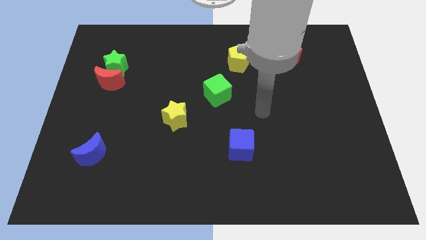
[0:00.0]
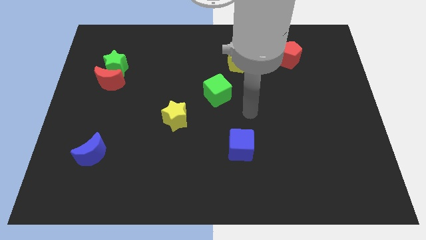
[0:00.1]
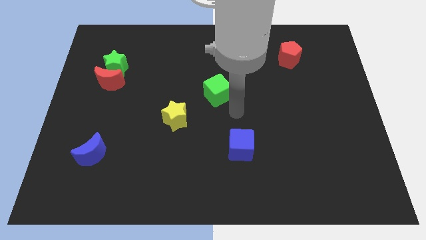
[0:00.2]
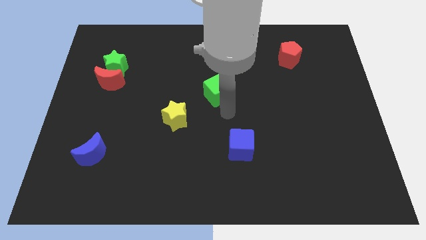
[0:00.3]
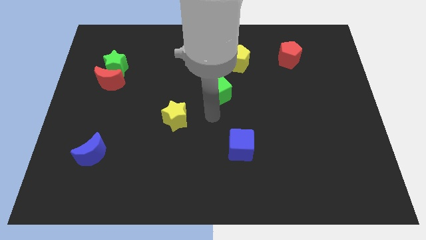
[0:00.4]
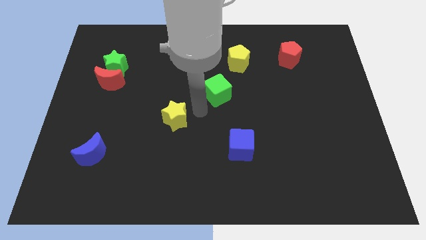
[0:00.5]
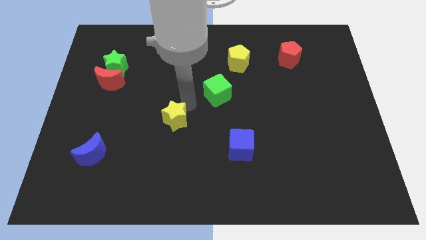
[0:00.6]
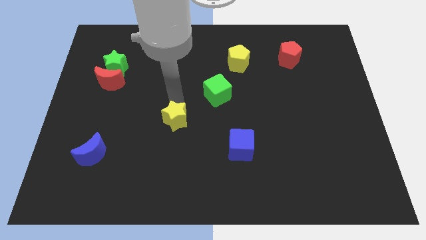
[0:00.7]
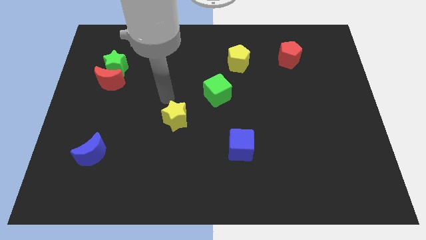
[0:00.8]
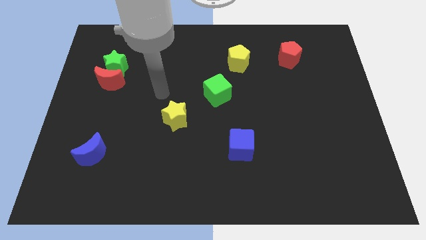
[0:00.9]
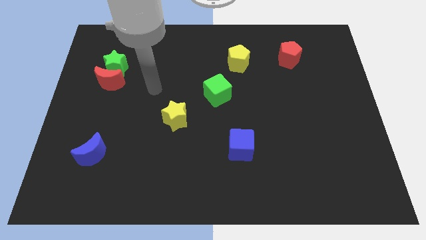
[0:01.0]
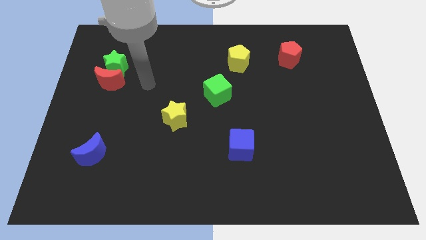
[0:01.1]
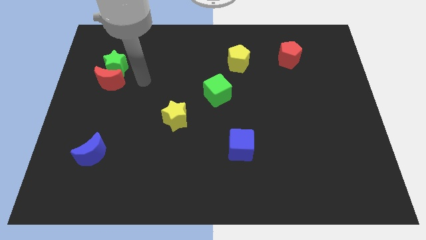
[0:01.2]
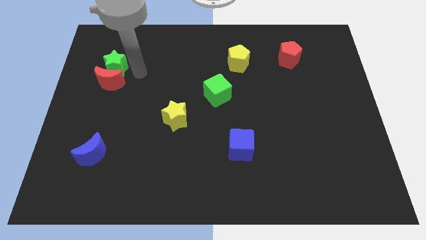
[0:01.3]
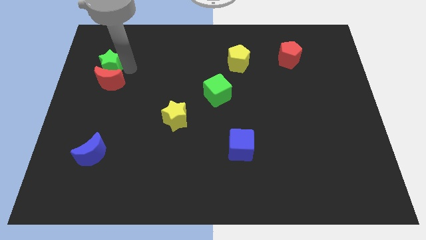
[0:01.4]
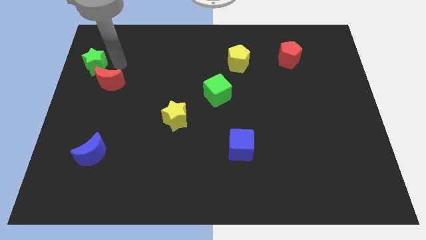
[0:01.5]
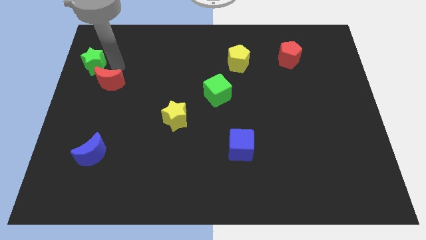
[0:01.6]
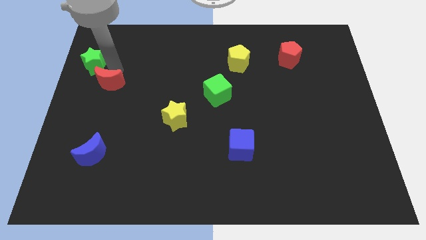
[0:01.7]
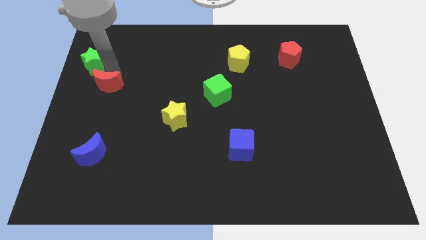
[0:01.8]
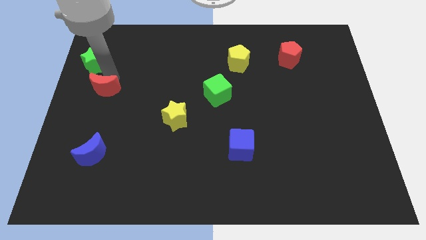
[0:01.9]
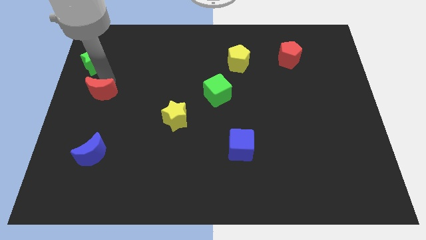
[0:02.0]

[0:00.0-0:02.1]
separate the red moon from the green star

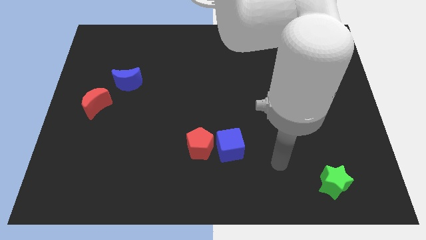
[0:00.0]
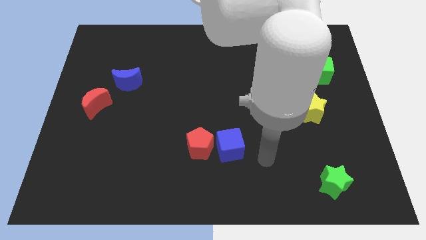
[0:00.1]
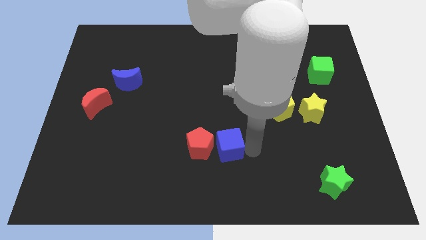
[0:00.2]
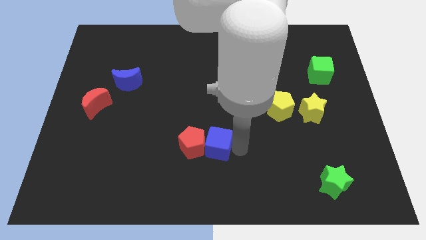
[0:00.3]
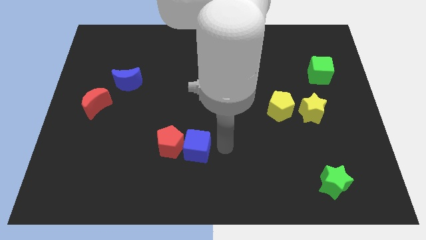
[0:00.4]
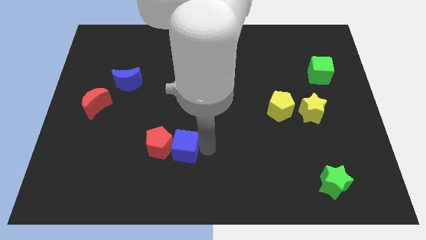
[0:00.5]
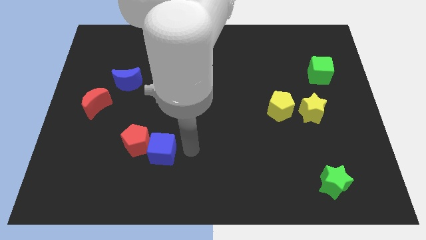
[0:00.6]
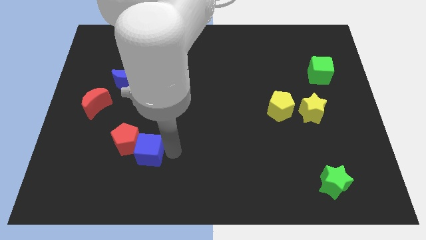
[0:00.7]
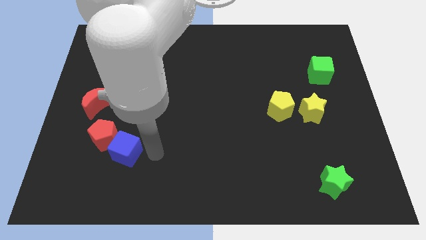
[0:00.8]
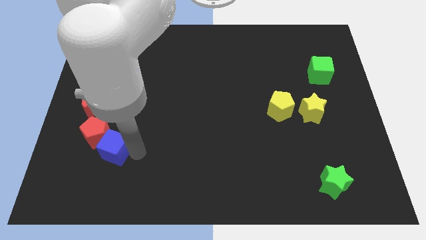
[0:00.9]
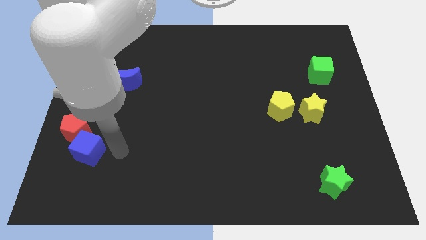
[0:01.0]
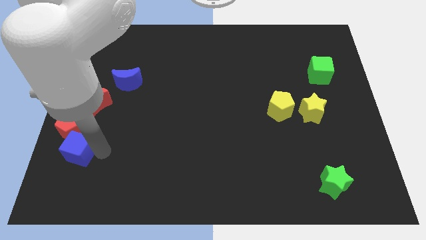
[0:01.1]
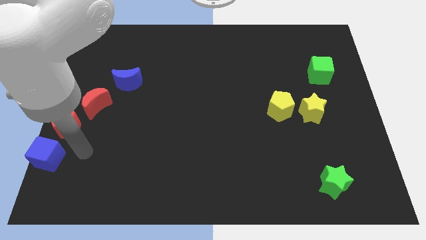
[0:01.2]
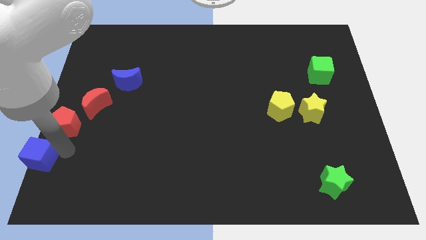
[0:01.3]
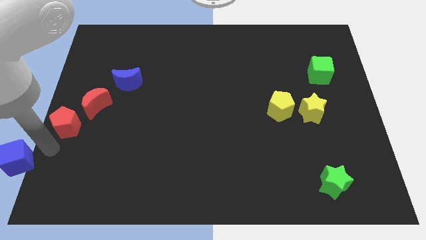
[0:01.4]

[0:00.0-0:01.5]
separate the red pentagon from the blue cube

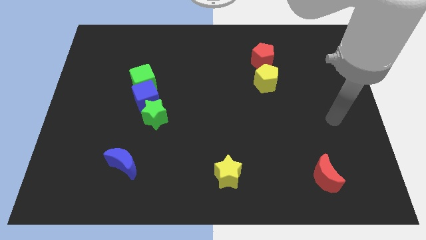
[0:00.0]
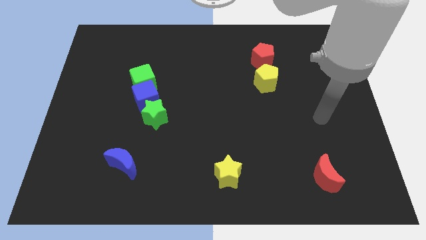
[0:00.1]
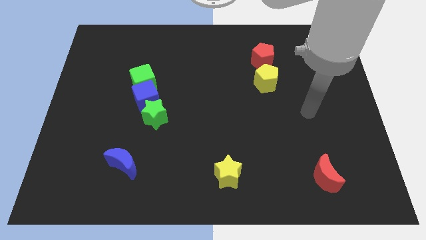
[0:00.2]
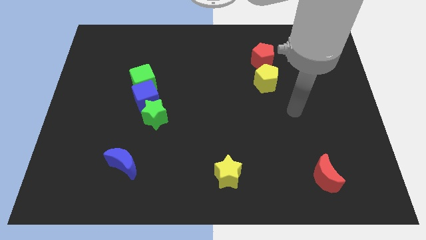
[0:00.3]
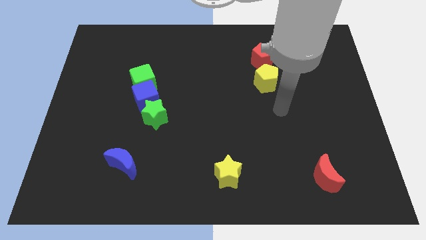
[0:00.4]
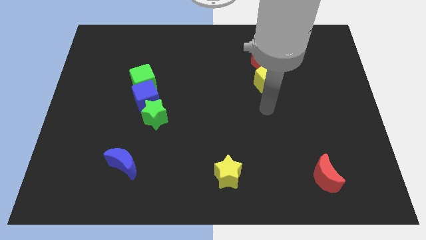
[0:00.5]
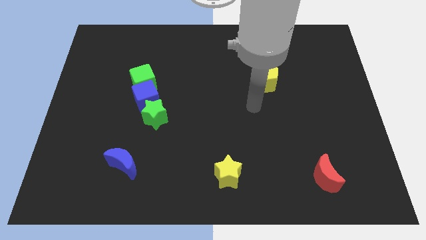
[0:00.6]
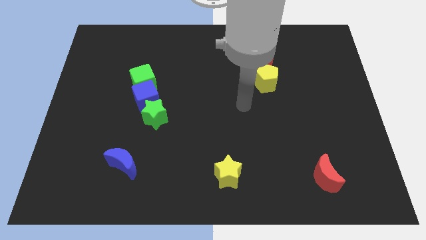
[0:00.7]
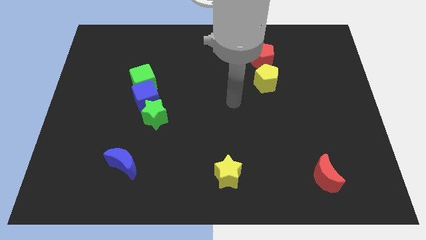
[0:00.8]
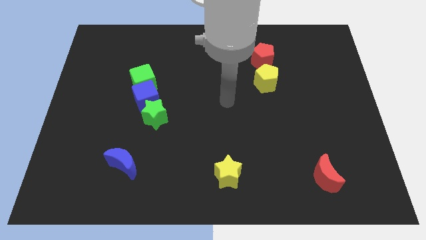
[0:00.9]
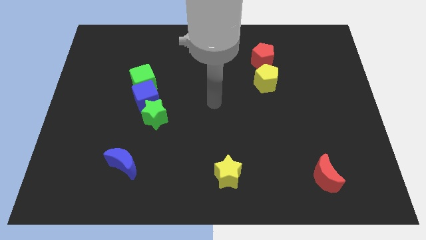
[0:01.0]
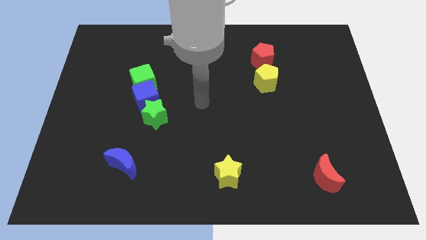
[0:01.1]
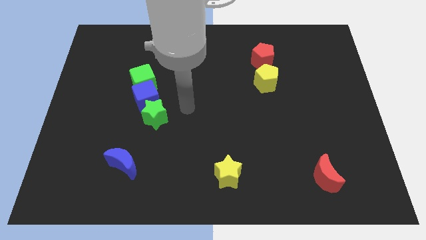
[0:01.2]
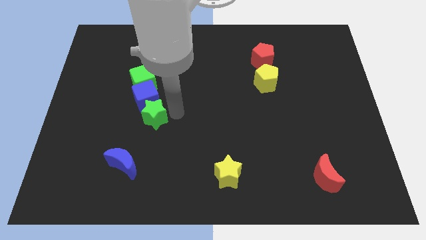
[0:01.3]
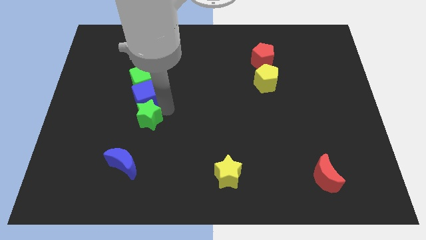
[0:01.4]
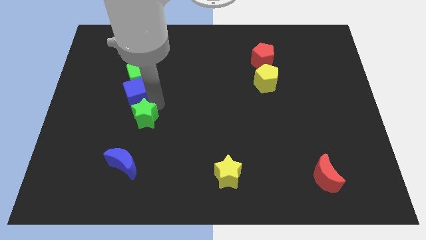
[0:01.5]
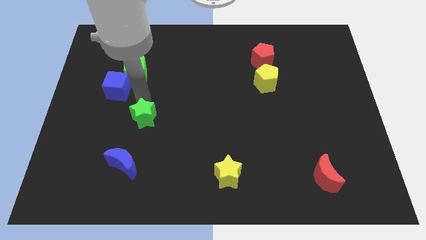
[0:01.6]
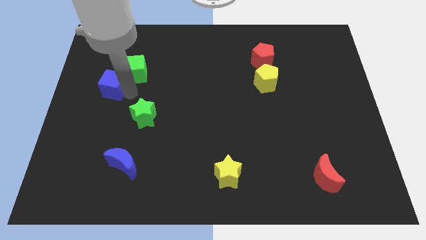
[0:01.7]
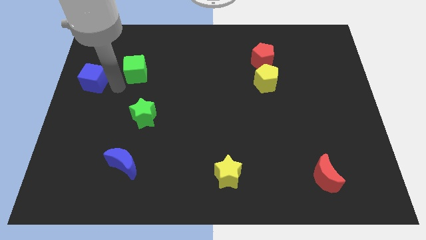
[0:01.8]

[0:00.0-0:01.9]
pull the green cube apart from the blue cube

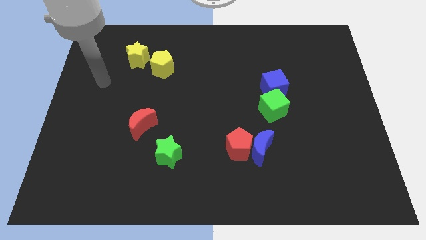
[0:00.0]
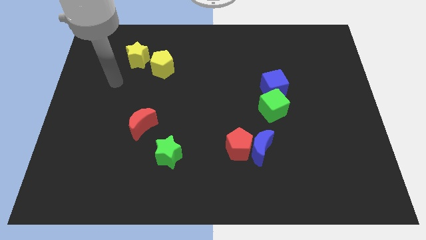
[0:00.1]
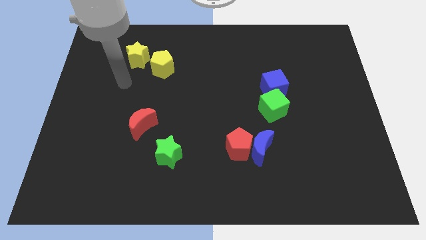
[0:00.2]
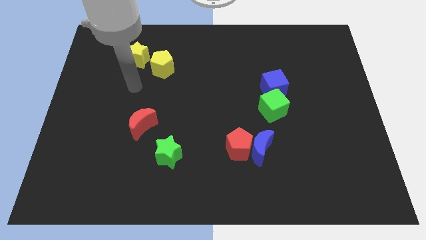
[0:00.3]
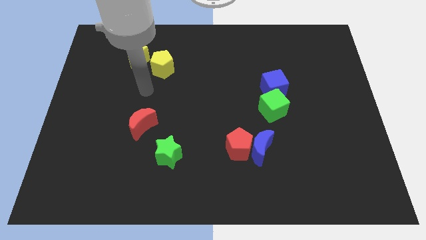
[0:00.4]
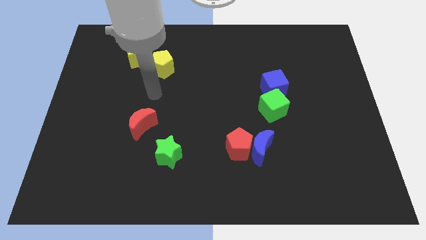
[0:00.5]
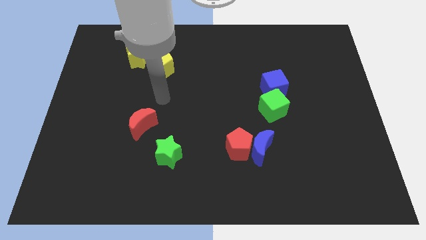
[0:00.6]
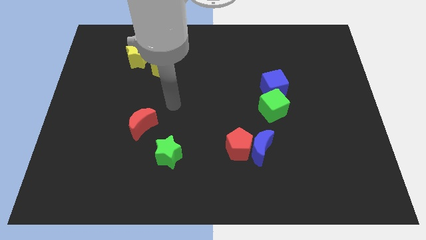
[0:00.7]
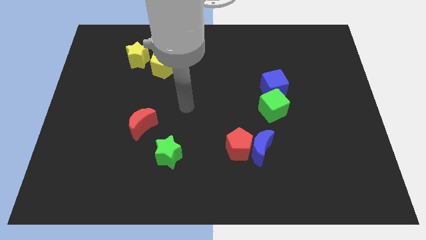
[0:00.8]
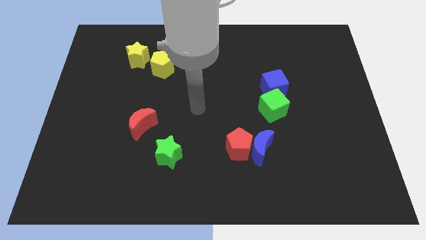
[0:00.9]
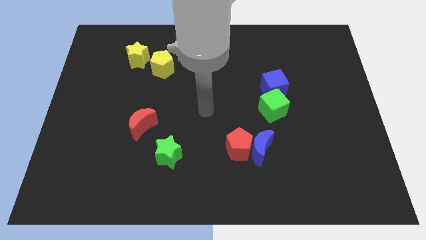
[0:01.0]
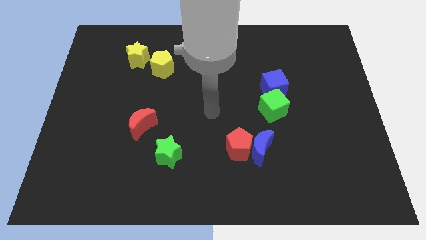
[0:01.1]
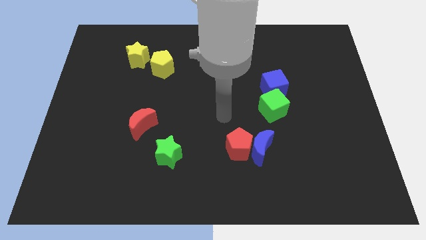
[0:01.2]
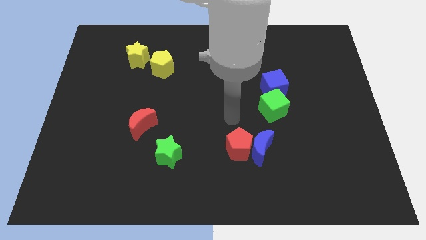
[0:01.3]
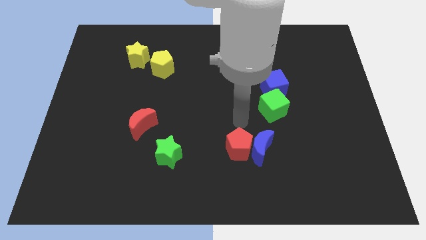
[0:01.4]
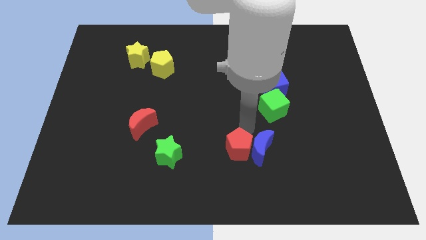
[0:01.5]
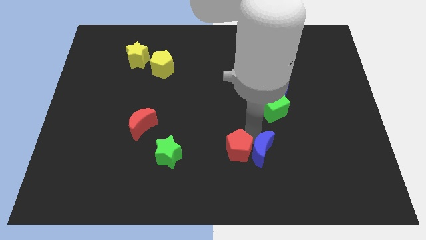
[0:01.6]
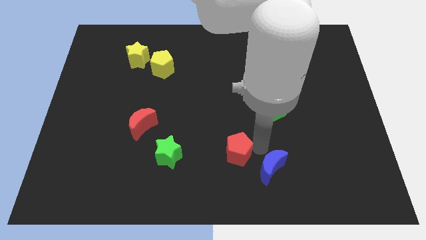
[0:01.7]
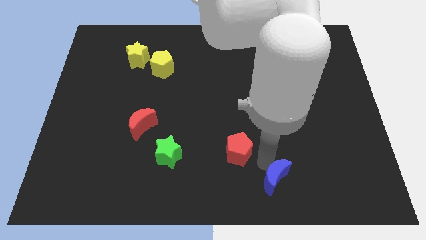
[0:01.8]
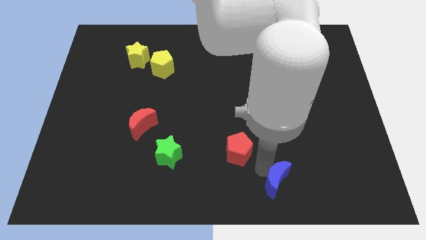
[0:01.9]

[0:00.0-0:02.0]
pull the red pentagon apart from the blue moon

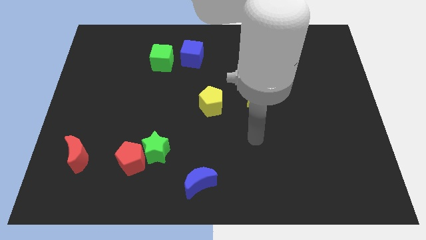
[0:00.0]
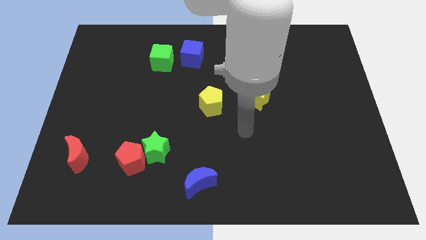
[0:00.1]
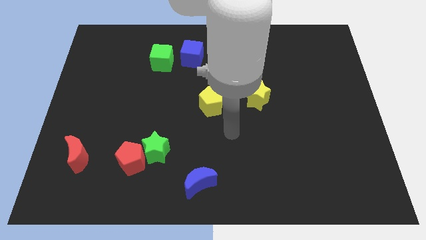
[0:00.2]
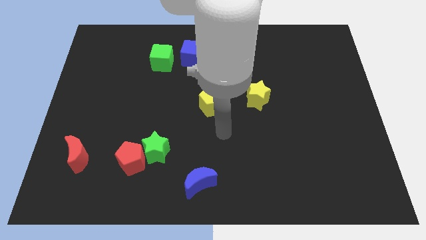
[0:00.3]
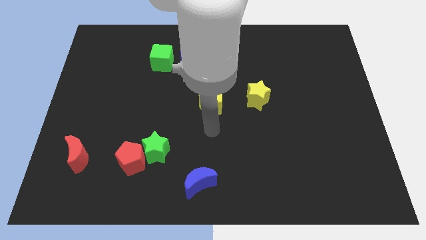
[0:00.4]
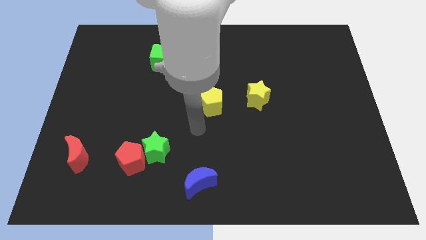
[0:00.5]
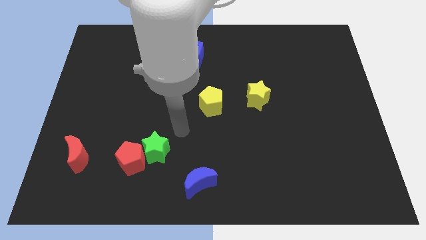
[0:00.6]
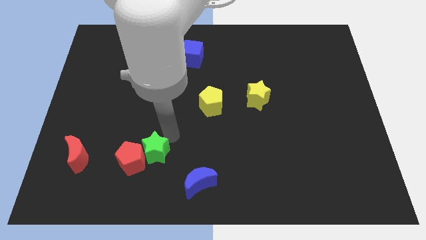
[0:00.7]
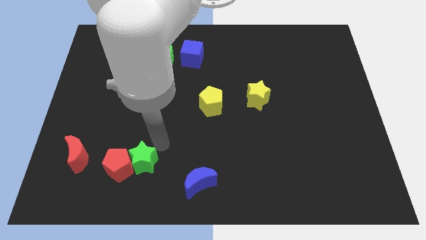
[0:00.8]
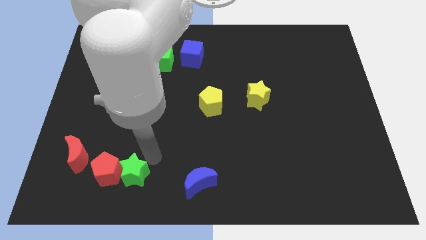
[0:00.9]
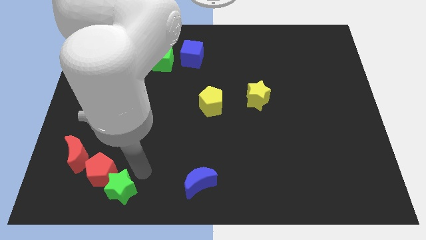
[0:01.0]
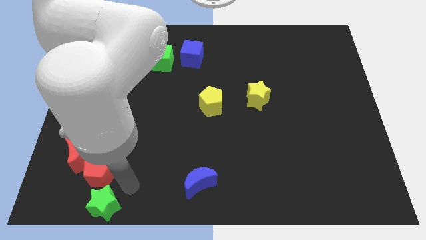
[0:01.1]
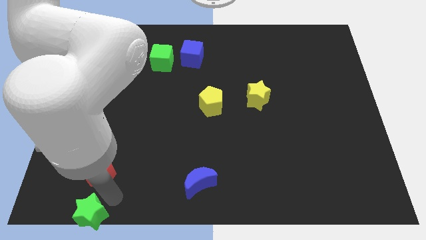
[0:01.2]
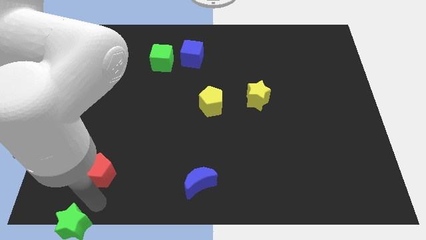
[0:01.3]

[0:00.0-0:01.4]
move the red pentagon away from the green star

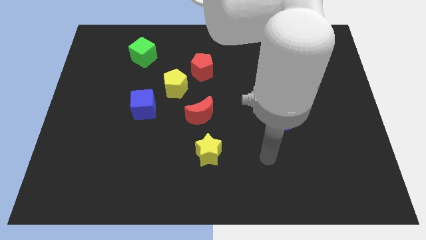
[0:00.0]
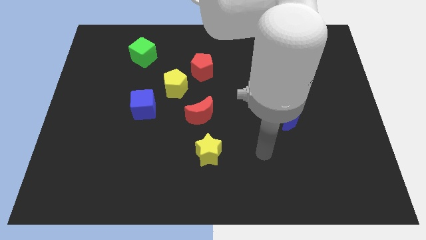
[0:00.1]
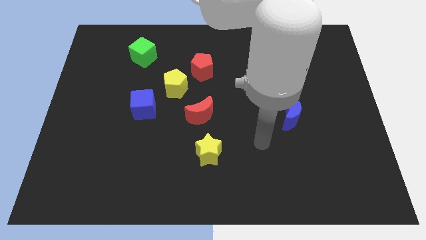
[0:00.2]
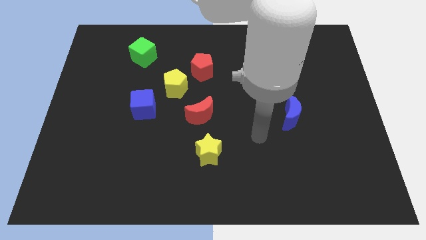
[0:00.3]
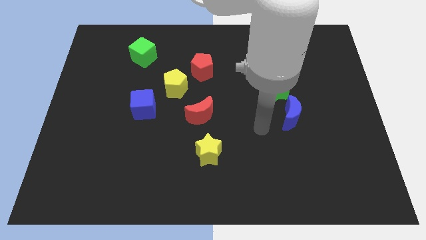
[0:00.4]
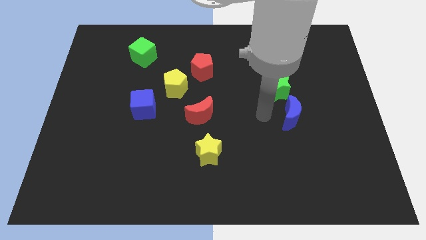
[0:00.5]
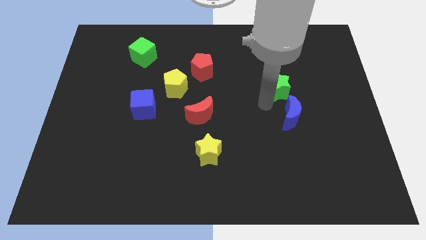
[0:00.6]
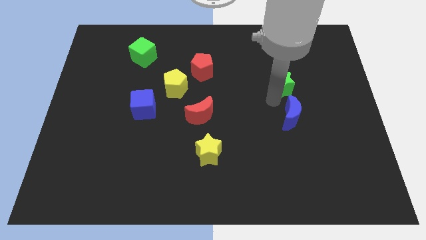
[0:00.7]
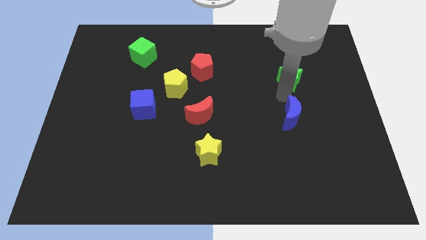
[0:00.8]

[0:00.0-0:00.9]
separate the blue moon from the green star
